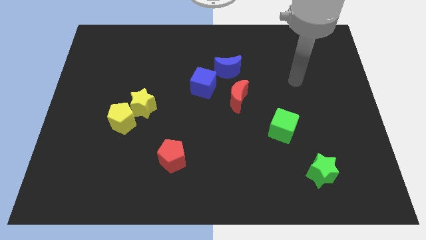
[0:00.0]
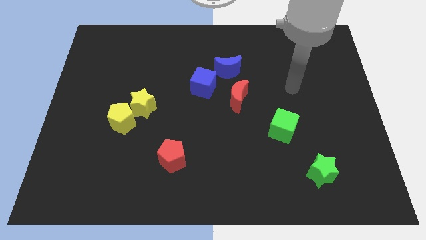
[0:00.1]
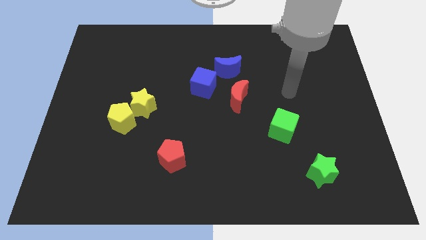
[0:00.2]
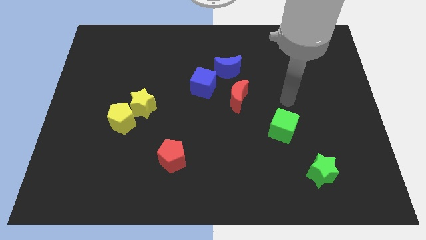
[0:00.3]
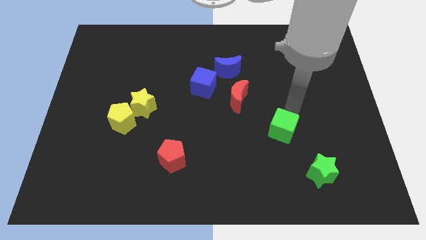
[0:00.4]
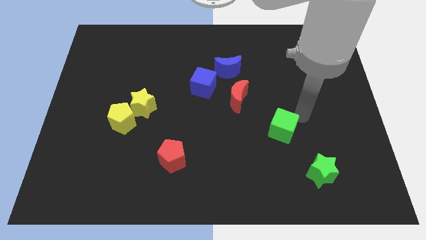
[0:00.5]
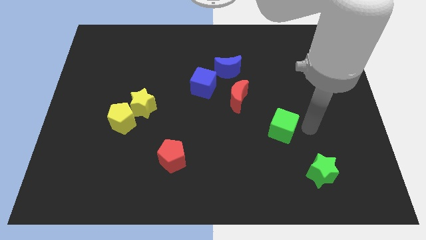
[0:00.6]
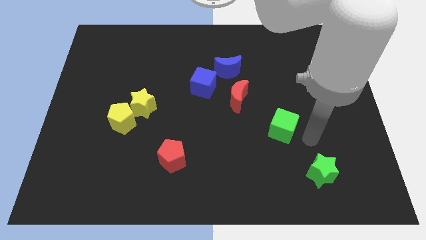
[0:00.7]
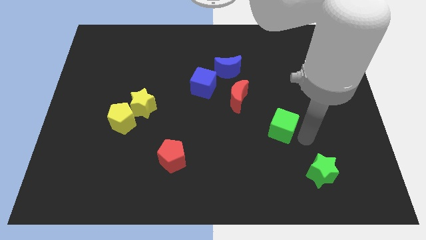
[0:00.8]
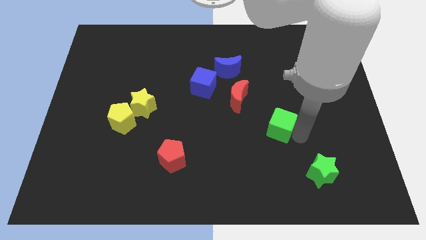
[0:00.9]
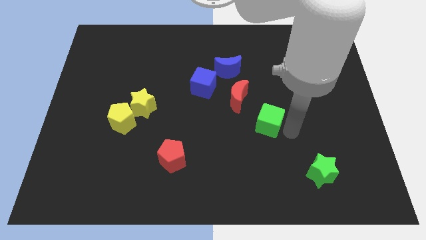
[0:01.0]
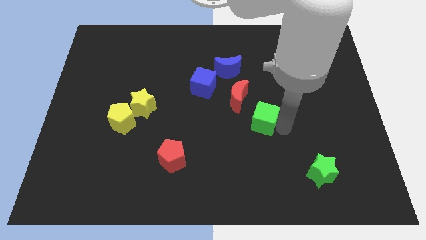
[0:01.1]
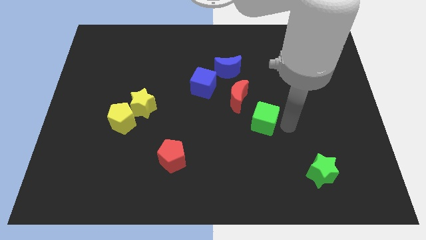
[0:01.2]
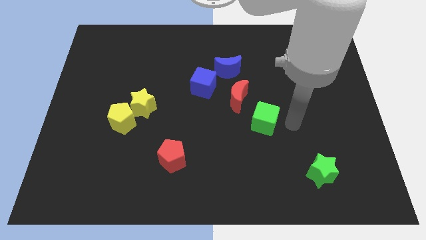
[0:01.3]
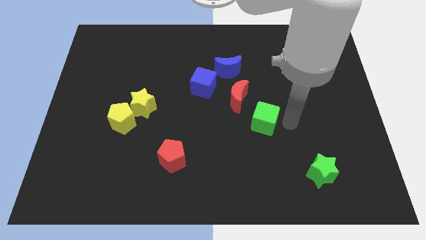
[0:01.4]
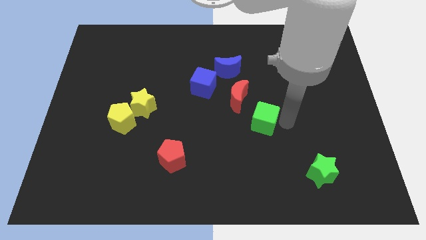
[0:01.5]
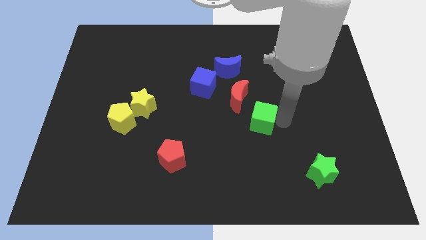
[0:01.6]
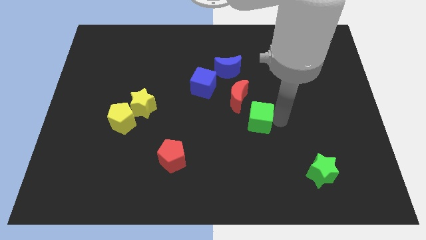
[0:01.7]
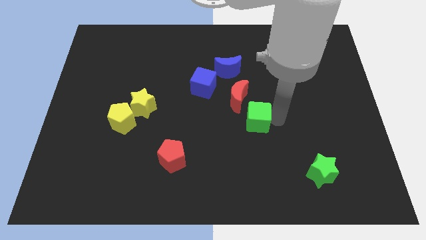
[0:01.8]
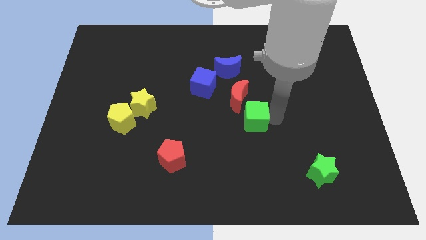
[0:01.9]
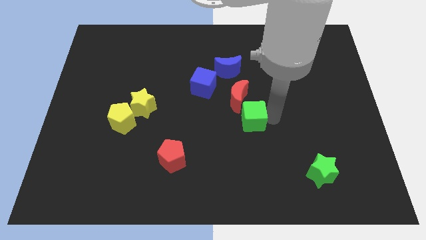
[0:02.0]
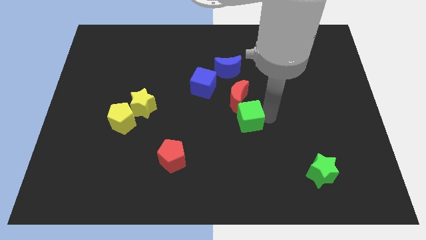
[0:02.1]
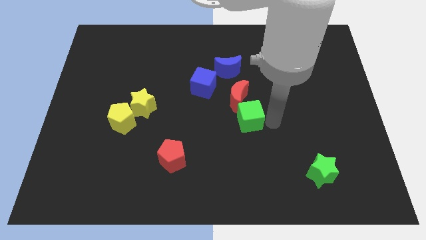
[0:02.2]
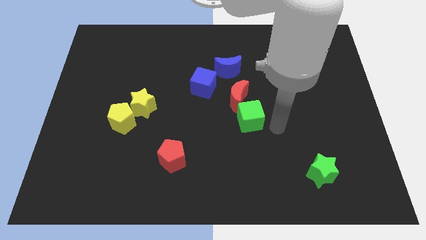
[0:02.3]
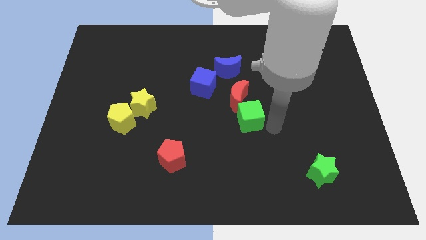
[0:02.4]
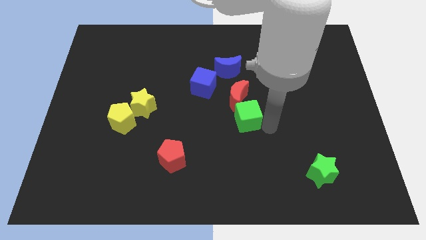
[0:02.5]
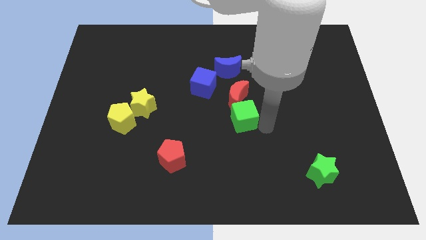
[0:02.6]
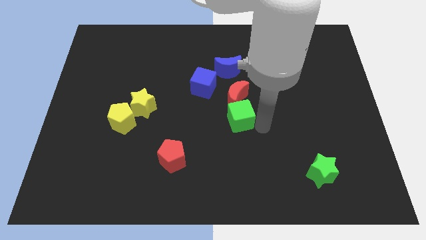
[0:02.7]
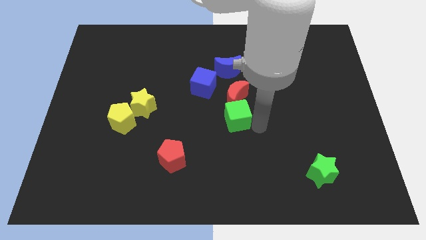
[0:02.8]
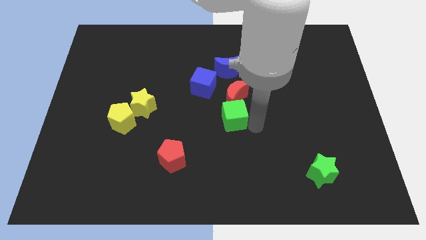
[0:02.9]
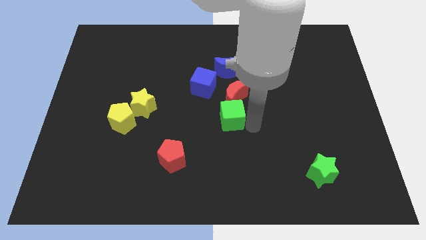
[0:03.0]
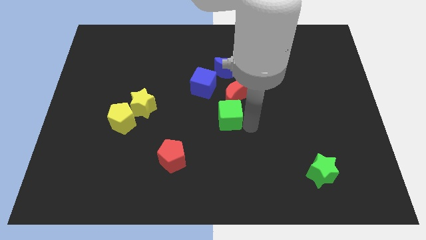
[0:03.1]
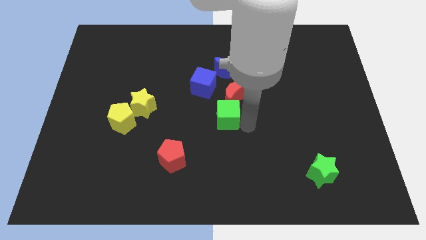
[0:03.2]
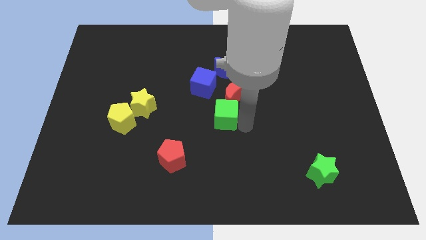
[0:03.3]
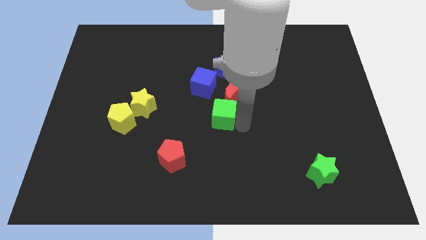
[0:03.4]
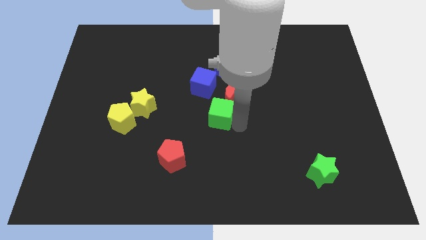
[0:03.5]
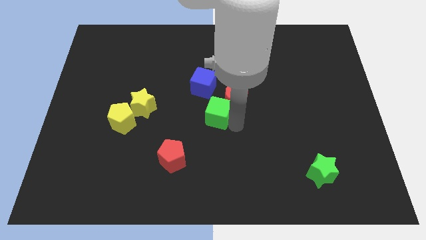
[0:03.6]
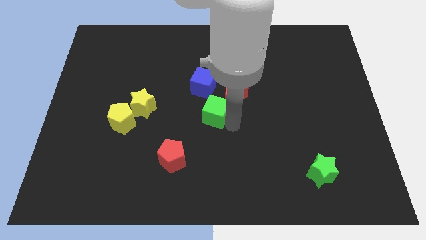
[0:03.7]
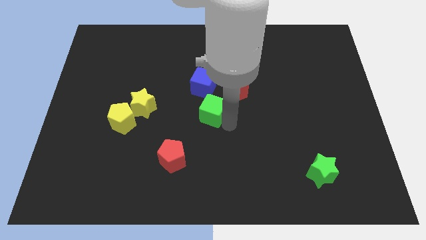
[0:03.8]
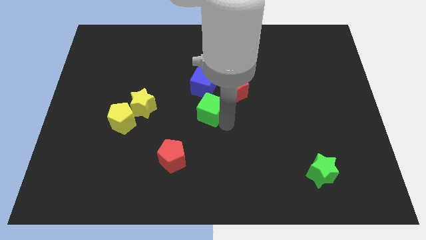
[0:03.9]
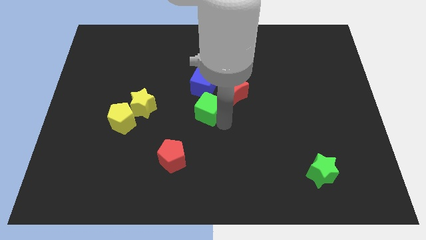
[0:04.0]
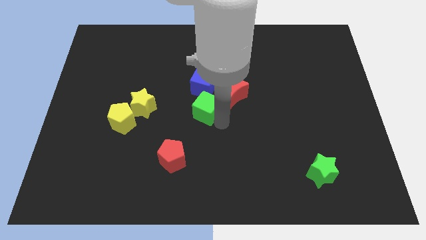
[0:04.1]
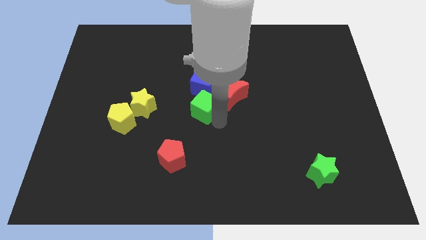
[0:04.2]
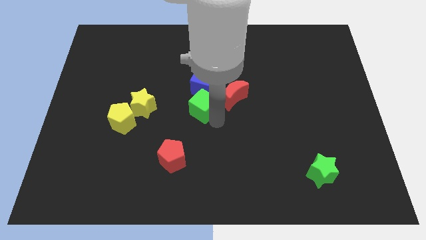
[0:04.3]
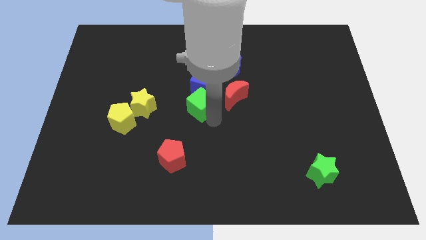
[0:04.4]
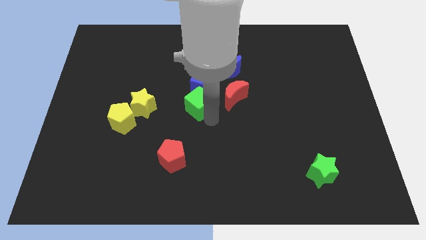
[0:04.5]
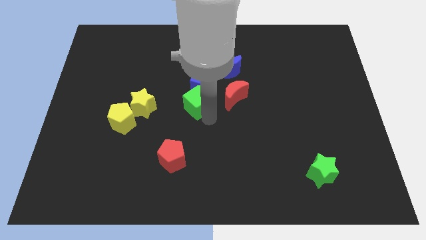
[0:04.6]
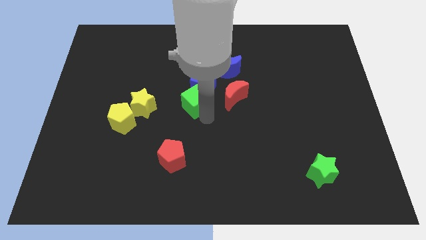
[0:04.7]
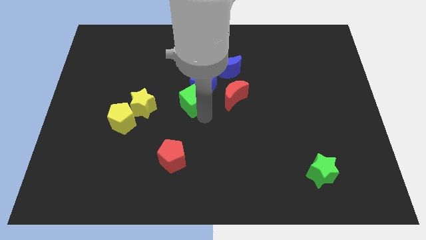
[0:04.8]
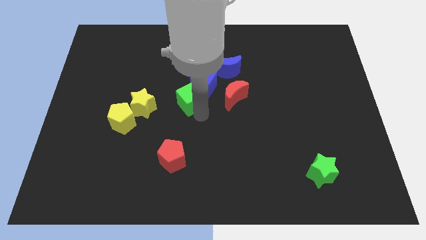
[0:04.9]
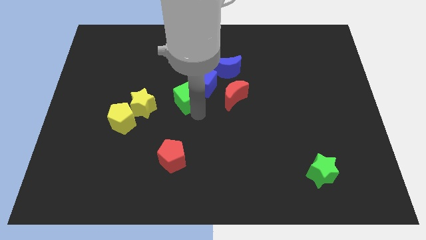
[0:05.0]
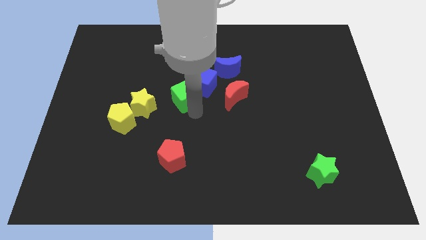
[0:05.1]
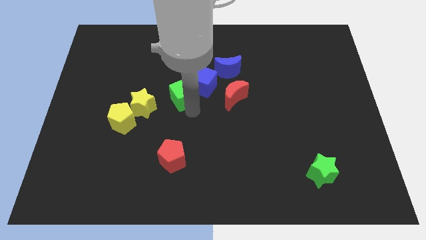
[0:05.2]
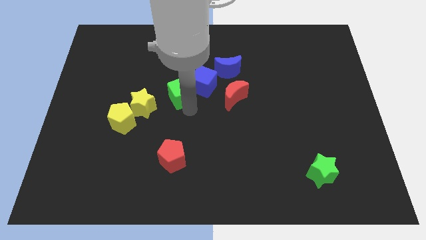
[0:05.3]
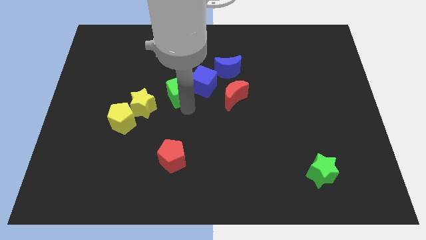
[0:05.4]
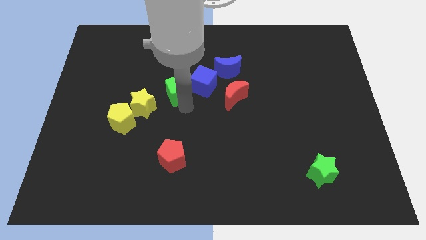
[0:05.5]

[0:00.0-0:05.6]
slide the green cube upwards and to the left

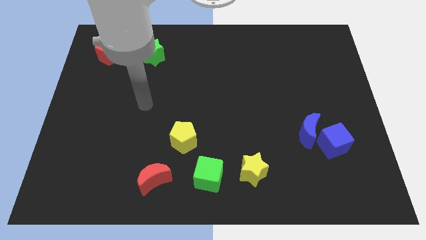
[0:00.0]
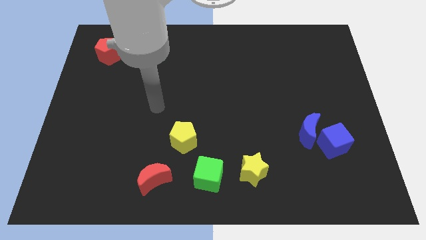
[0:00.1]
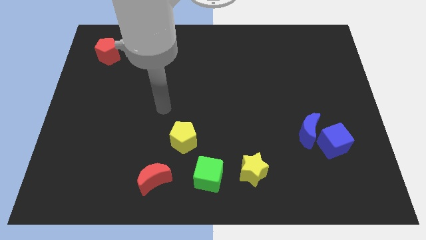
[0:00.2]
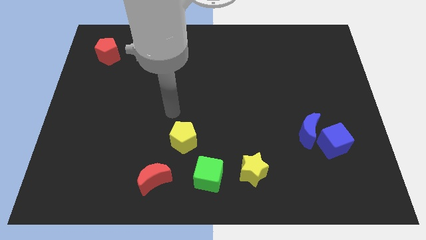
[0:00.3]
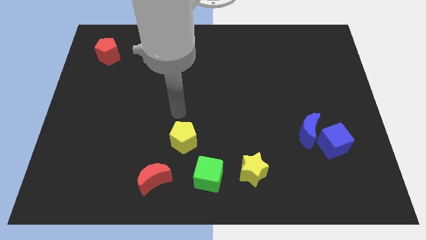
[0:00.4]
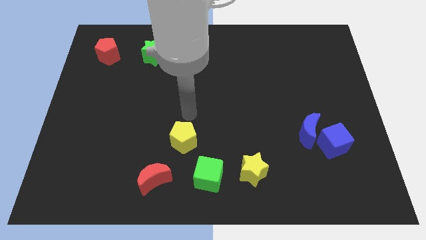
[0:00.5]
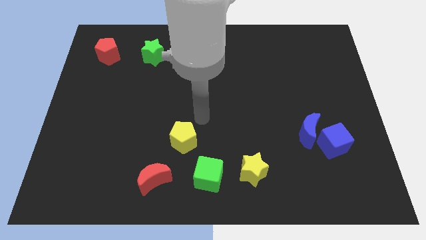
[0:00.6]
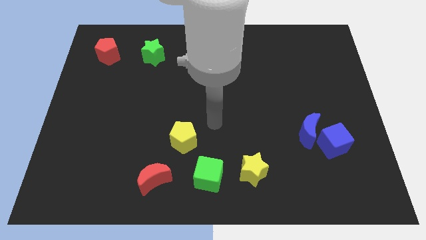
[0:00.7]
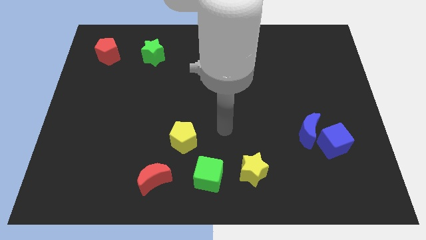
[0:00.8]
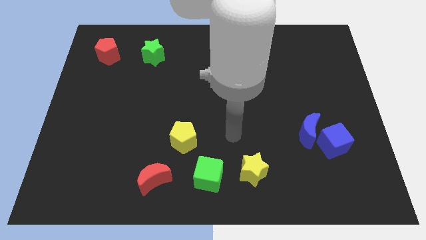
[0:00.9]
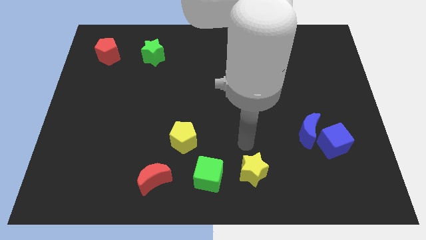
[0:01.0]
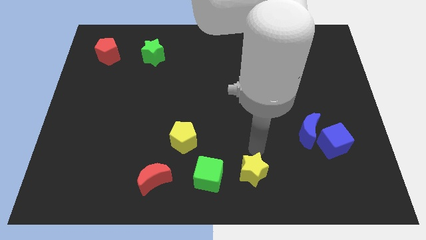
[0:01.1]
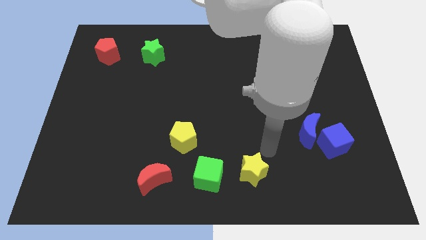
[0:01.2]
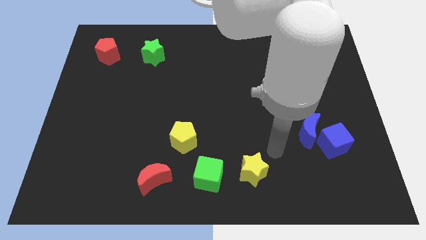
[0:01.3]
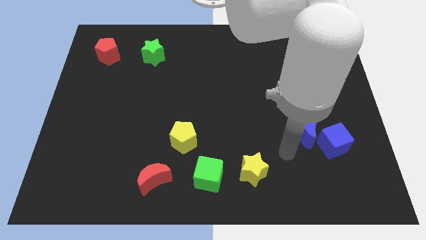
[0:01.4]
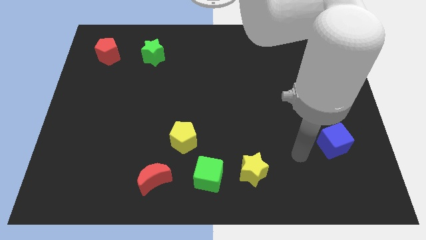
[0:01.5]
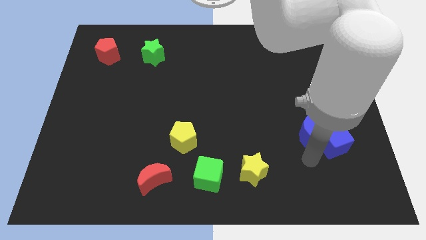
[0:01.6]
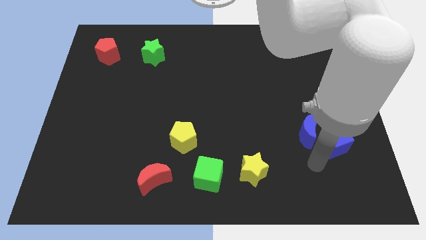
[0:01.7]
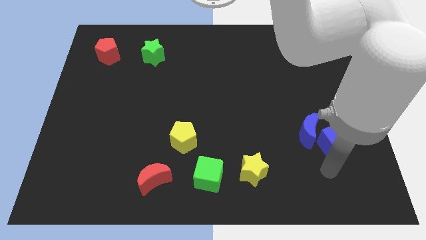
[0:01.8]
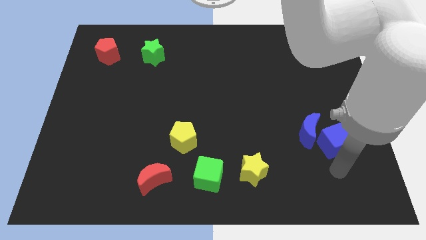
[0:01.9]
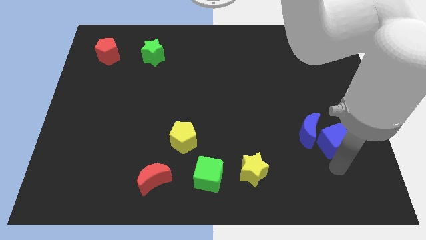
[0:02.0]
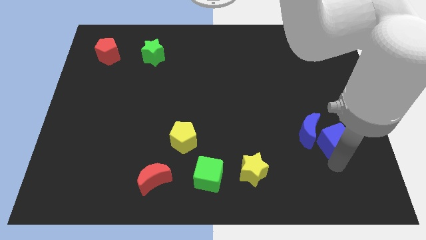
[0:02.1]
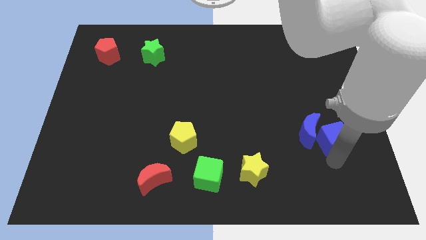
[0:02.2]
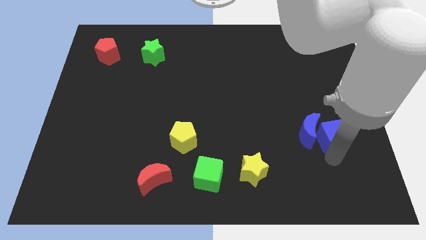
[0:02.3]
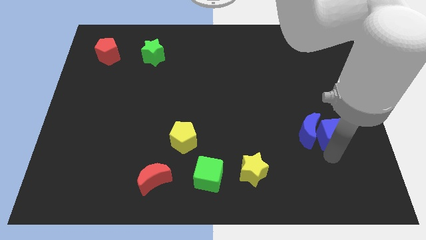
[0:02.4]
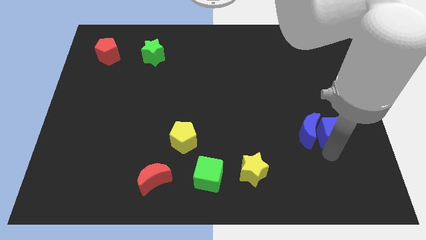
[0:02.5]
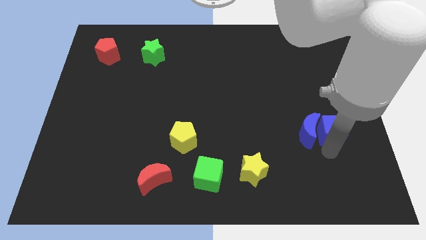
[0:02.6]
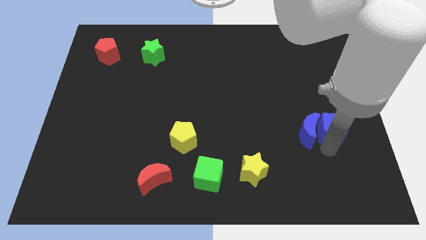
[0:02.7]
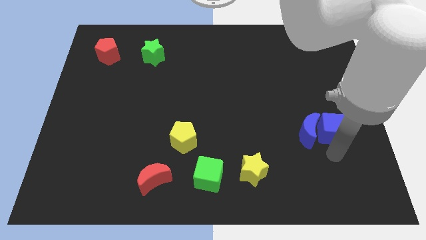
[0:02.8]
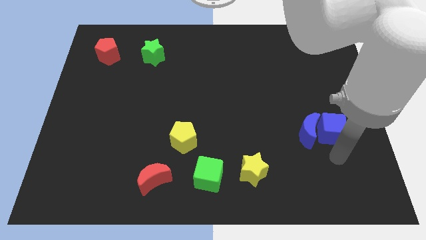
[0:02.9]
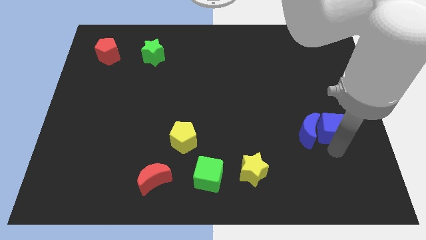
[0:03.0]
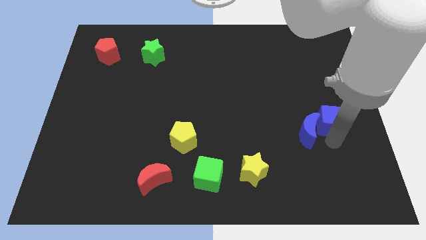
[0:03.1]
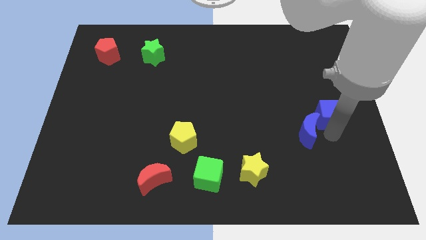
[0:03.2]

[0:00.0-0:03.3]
move the blue cube up a little
